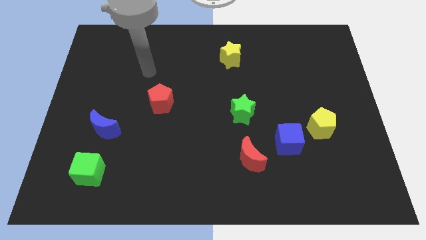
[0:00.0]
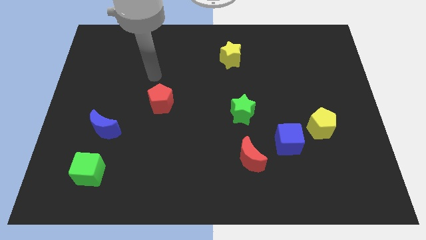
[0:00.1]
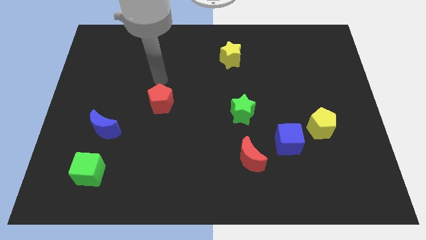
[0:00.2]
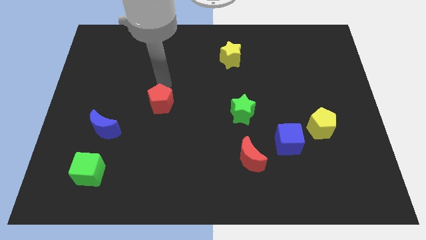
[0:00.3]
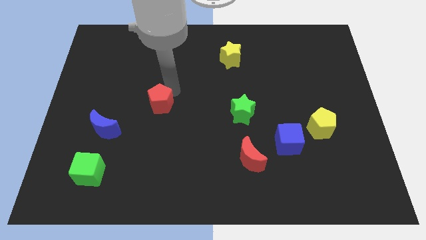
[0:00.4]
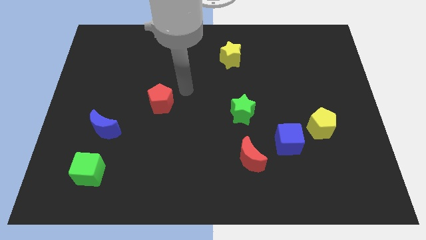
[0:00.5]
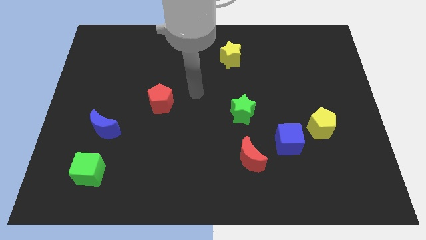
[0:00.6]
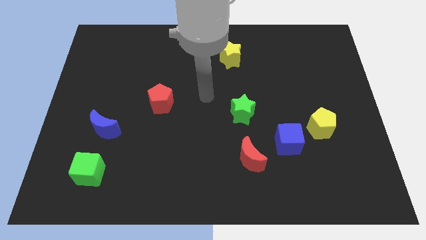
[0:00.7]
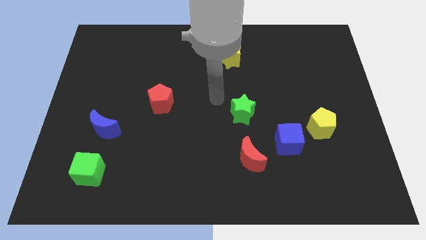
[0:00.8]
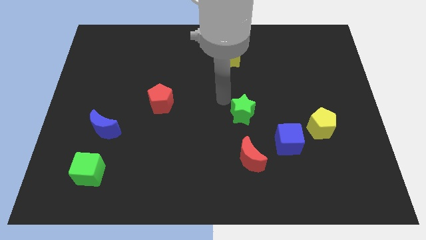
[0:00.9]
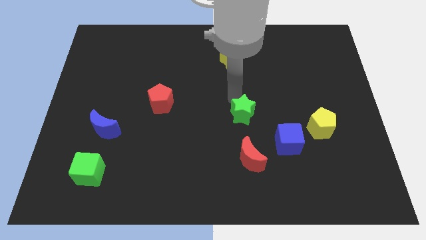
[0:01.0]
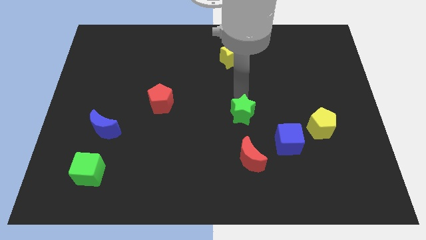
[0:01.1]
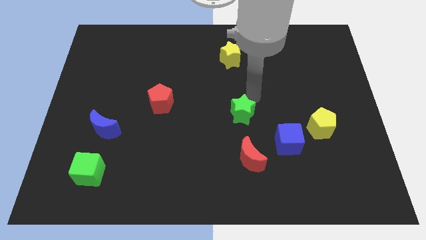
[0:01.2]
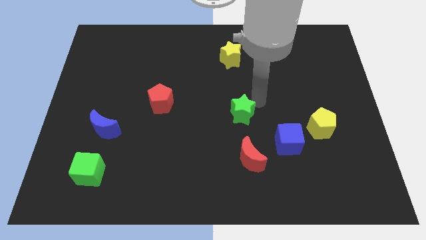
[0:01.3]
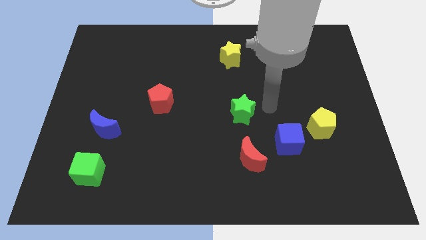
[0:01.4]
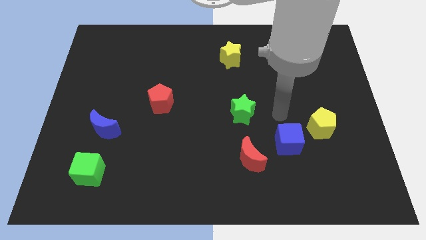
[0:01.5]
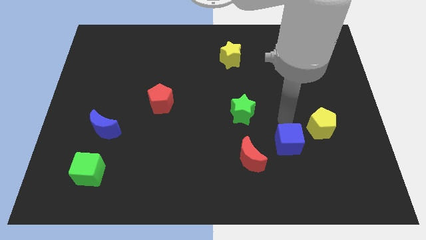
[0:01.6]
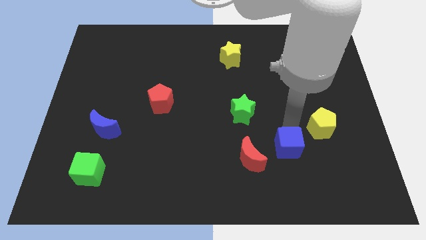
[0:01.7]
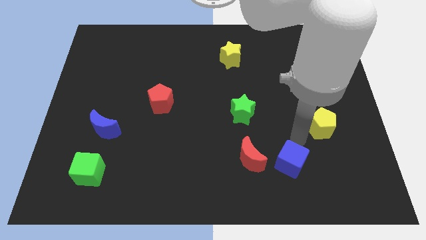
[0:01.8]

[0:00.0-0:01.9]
move the yellow pentagon away from the blue cube

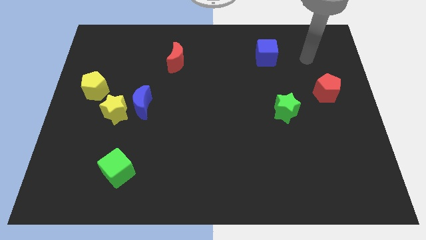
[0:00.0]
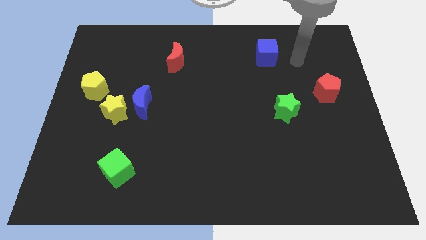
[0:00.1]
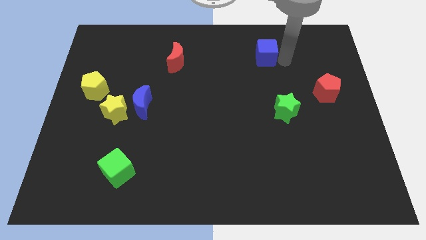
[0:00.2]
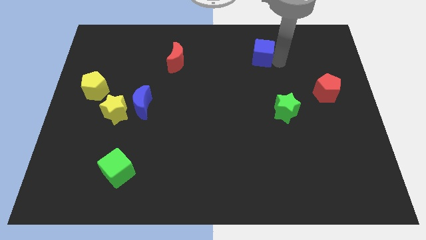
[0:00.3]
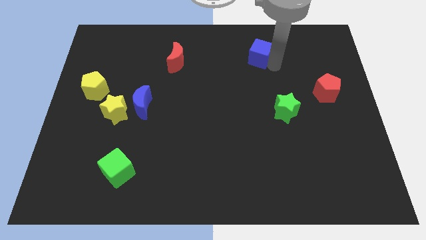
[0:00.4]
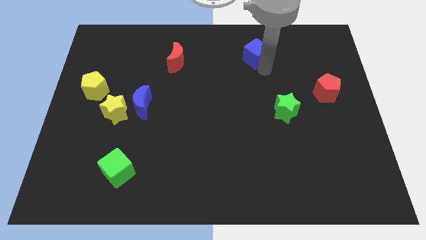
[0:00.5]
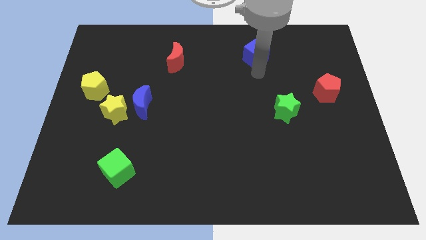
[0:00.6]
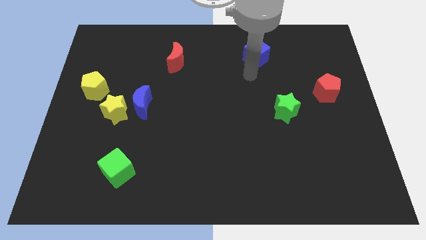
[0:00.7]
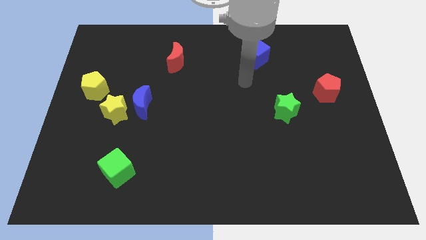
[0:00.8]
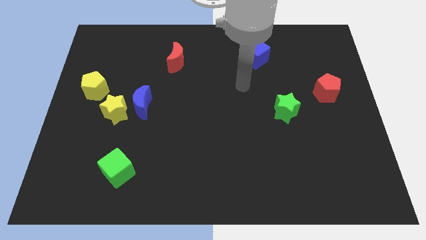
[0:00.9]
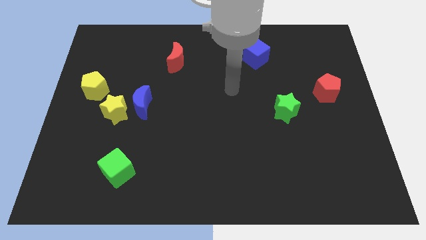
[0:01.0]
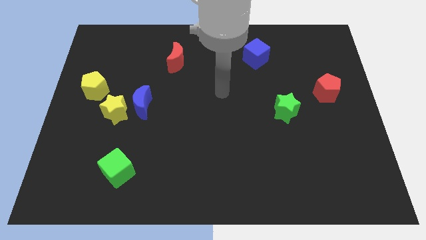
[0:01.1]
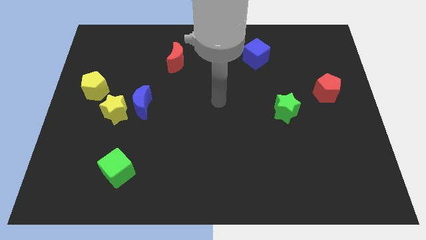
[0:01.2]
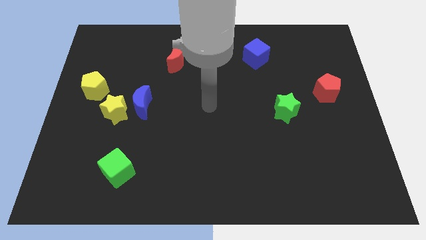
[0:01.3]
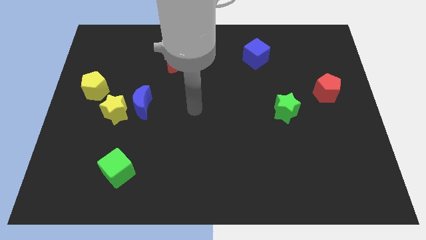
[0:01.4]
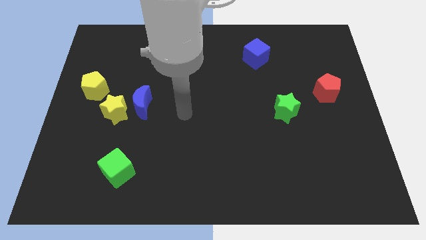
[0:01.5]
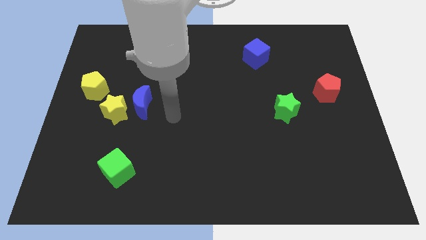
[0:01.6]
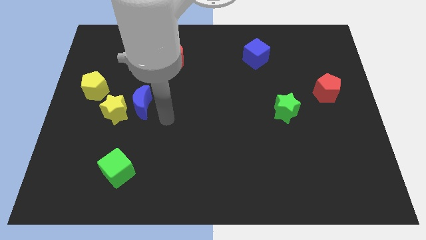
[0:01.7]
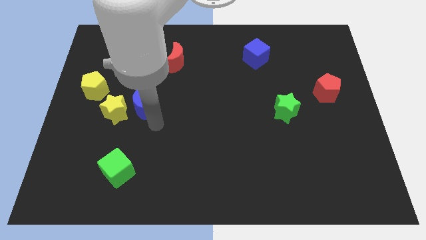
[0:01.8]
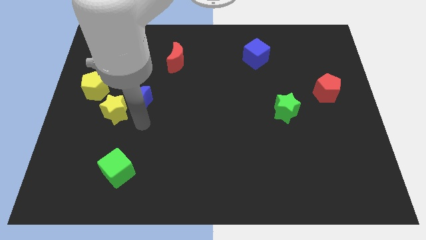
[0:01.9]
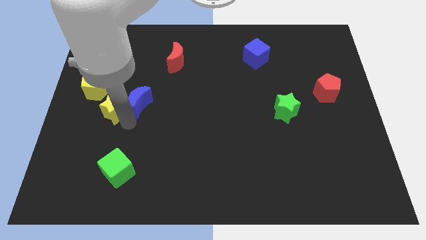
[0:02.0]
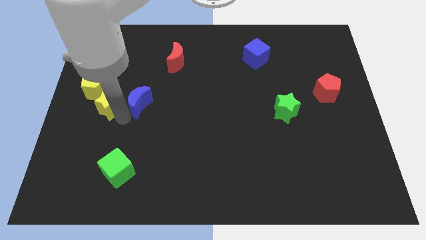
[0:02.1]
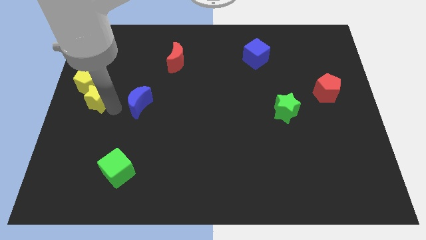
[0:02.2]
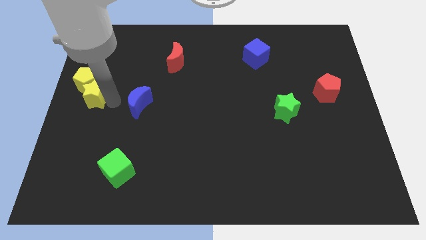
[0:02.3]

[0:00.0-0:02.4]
move the blue moon away from the yellow star

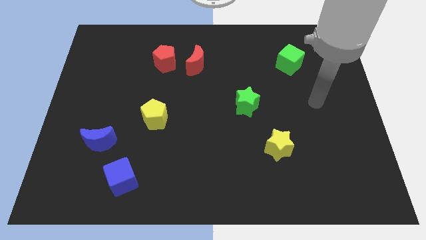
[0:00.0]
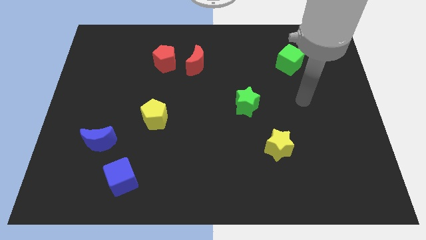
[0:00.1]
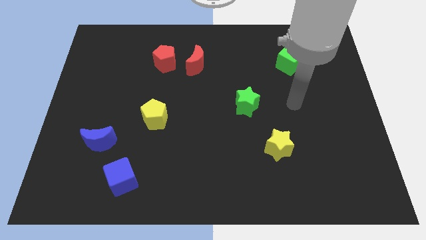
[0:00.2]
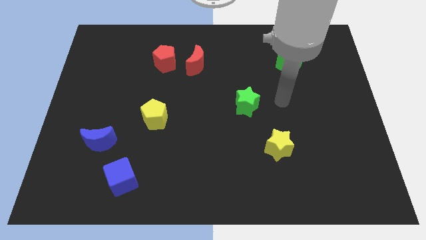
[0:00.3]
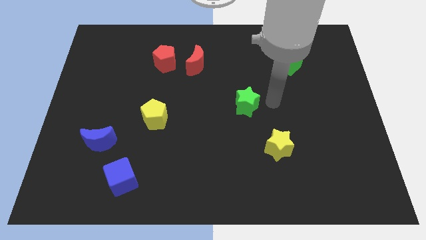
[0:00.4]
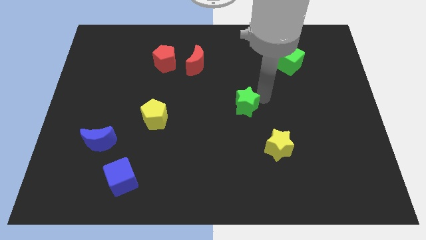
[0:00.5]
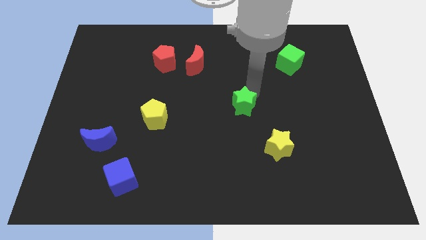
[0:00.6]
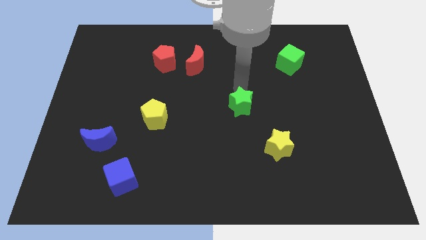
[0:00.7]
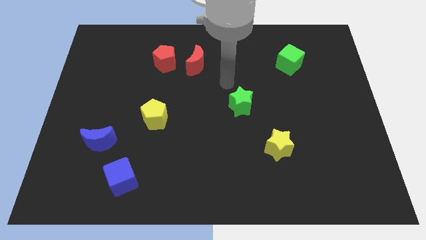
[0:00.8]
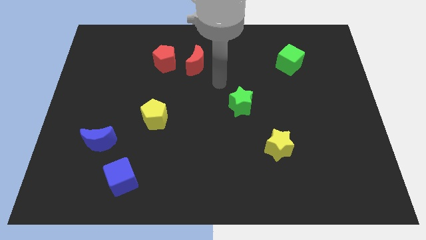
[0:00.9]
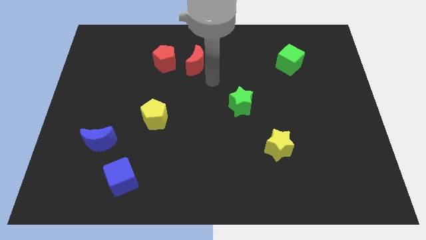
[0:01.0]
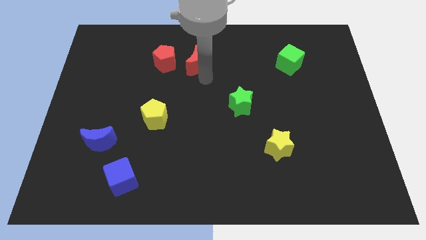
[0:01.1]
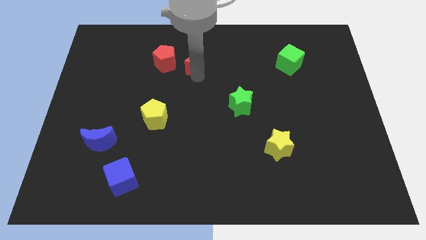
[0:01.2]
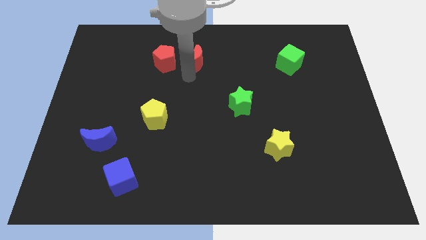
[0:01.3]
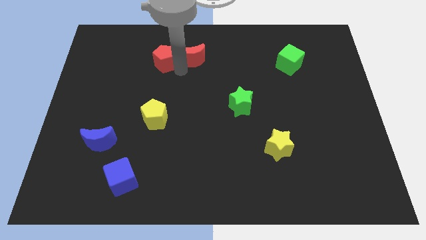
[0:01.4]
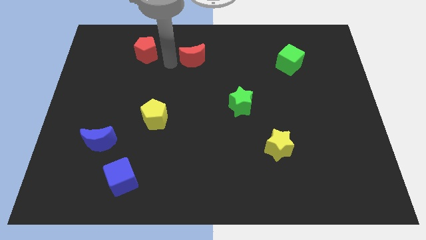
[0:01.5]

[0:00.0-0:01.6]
move the red moon away from the red pentagon

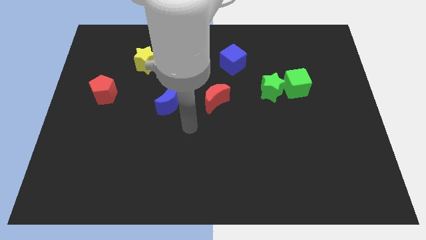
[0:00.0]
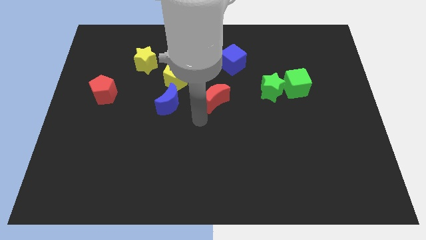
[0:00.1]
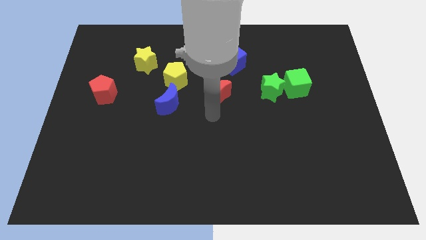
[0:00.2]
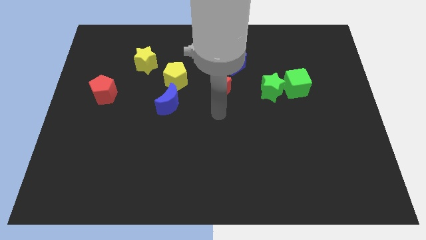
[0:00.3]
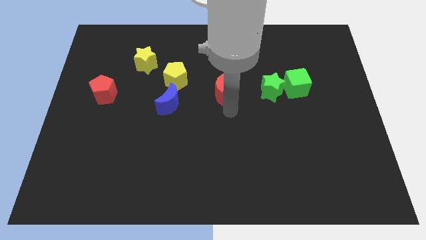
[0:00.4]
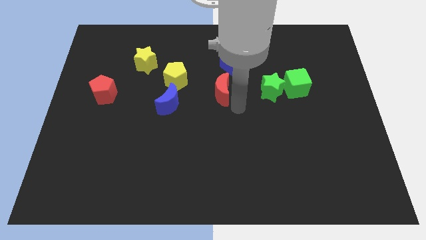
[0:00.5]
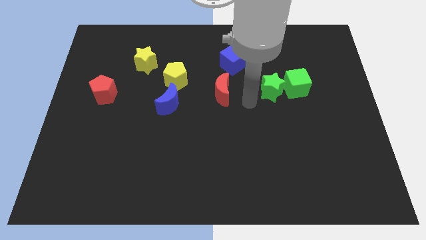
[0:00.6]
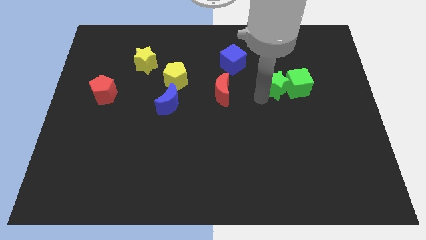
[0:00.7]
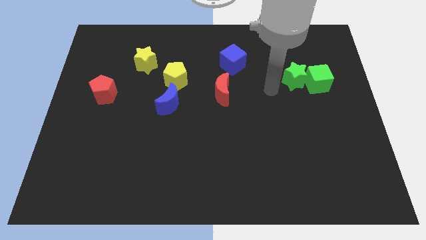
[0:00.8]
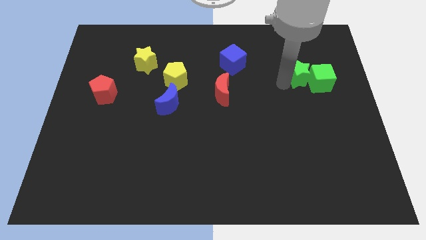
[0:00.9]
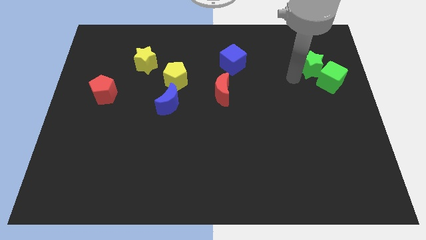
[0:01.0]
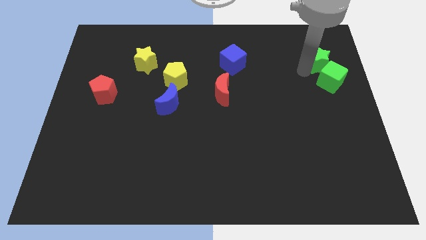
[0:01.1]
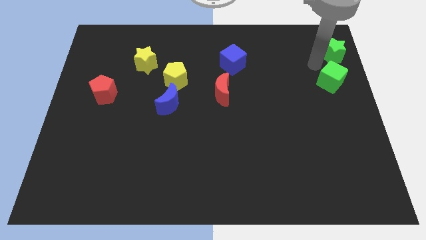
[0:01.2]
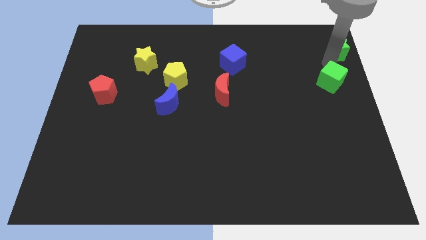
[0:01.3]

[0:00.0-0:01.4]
pull the green cube apart from the green star

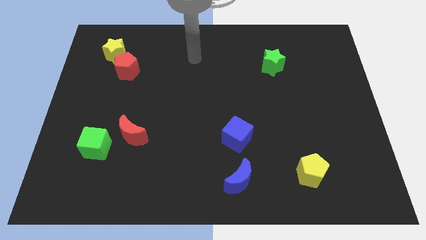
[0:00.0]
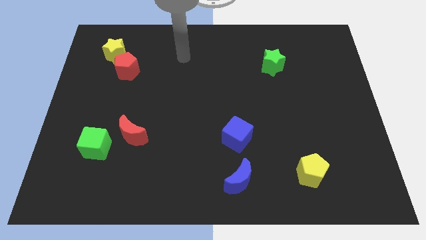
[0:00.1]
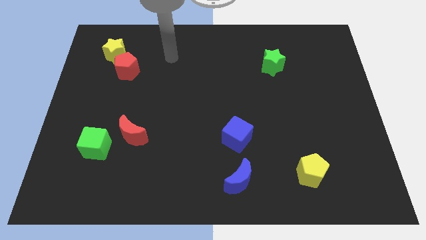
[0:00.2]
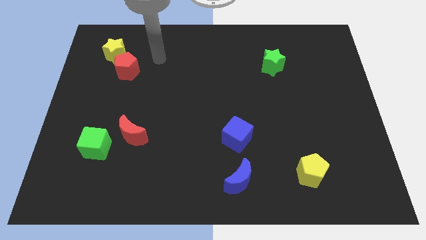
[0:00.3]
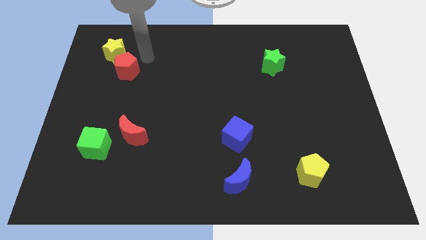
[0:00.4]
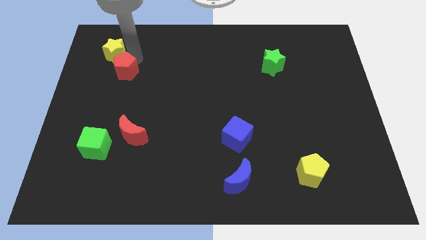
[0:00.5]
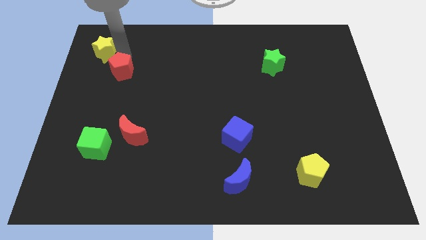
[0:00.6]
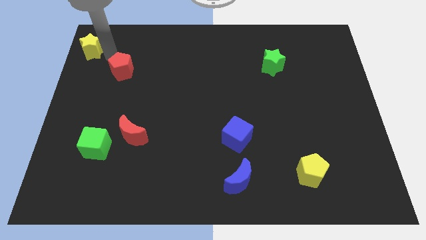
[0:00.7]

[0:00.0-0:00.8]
move the red pentagon away from the yellow star

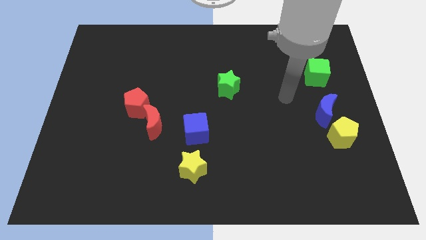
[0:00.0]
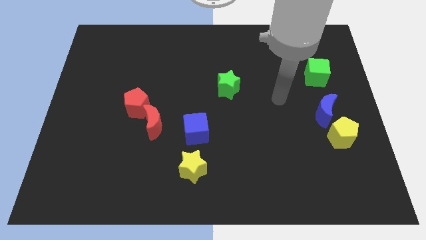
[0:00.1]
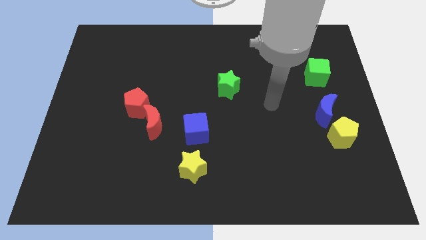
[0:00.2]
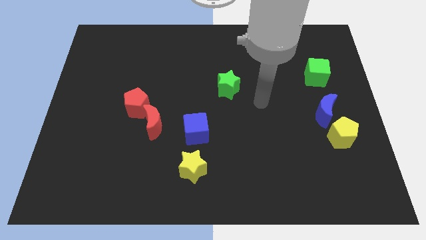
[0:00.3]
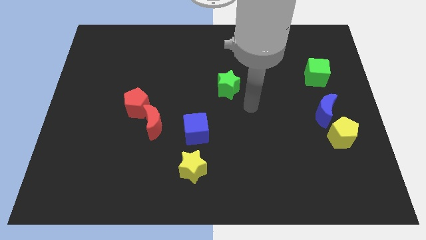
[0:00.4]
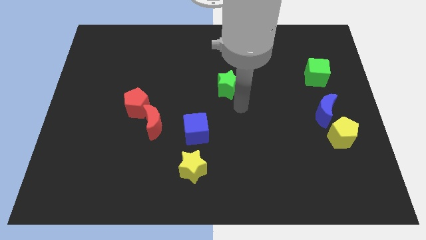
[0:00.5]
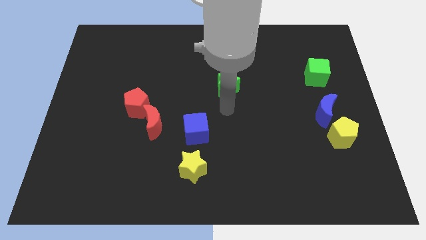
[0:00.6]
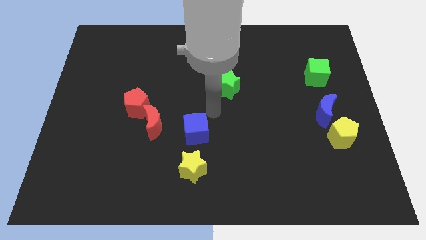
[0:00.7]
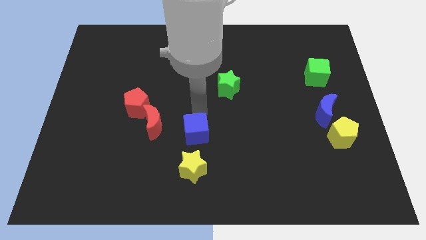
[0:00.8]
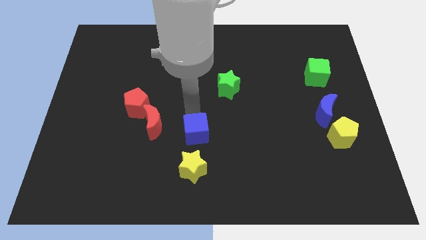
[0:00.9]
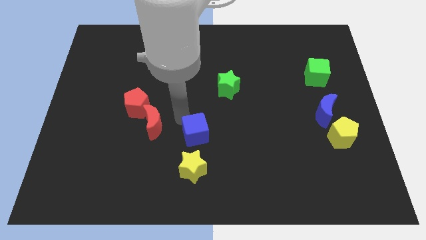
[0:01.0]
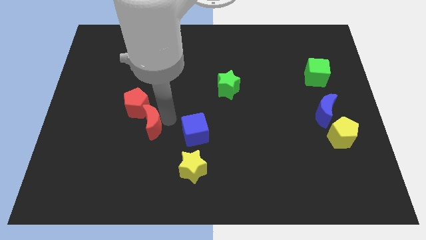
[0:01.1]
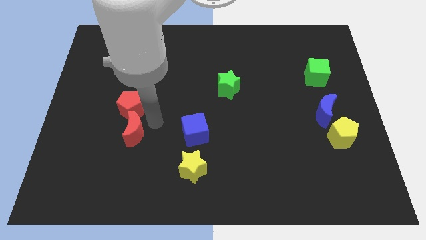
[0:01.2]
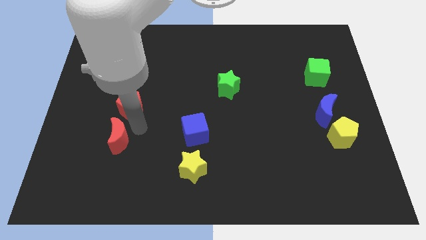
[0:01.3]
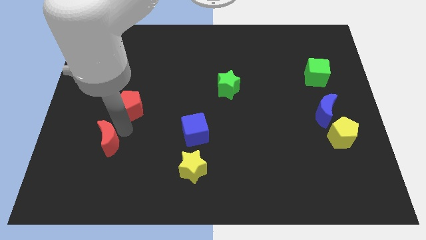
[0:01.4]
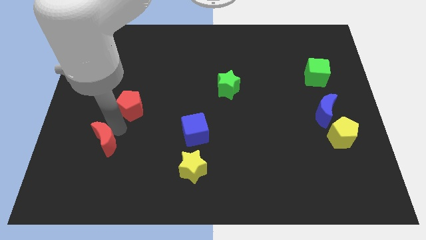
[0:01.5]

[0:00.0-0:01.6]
move the red pentagon away from the red moon
